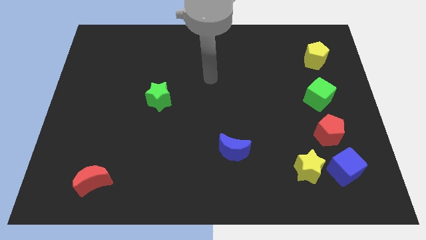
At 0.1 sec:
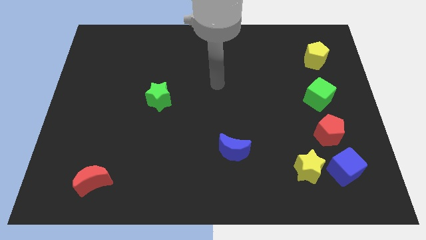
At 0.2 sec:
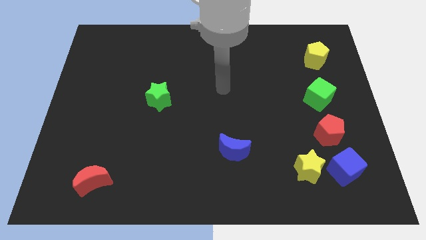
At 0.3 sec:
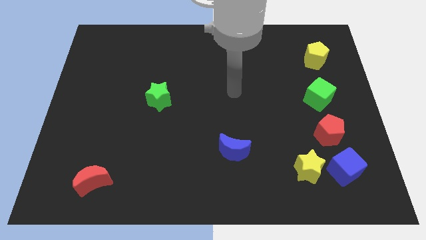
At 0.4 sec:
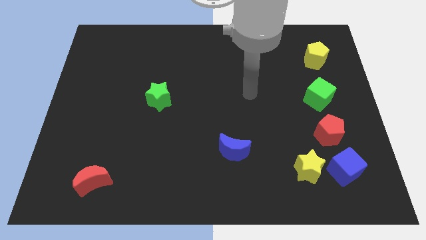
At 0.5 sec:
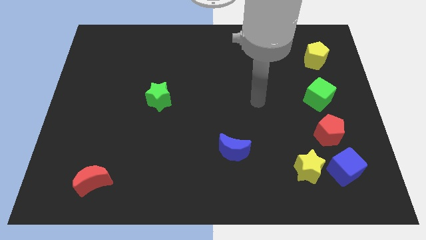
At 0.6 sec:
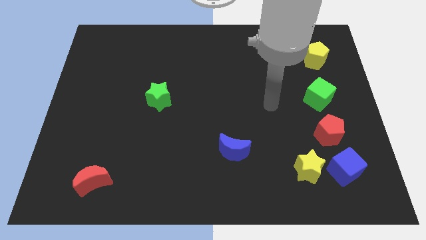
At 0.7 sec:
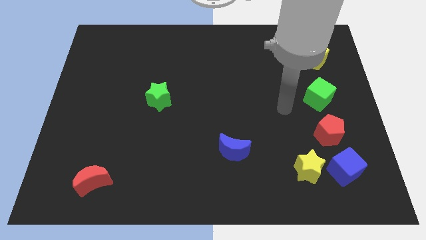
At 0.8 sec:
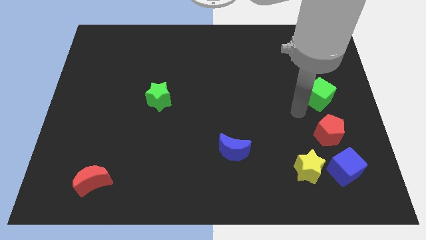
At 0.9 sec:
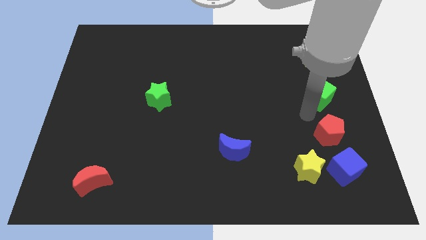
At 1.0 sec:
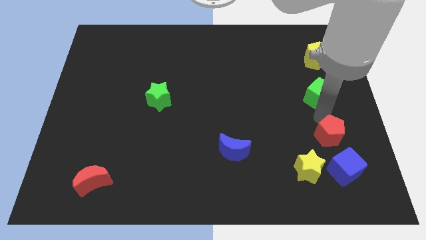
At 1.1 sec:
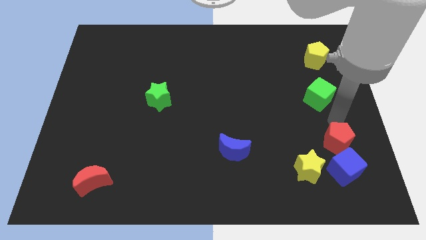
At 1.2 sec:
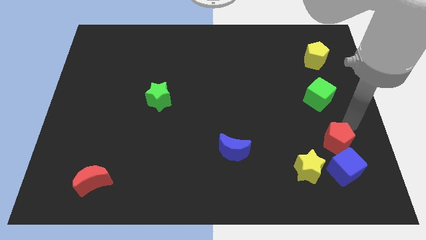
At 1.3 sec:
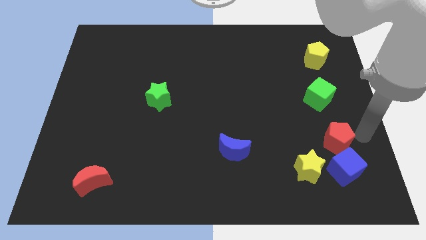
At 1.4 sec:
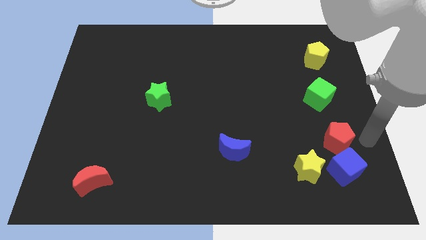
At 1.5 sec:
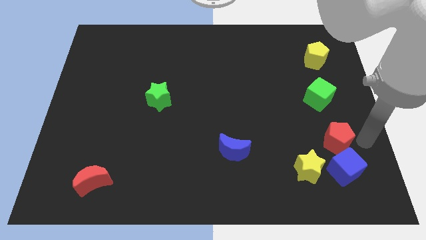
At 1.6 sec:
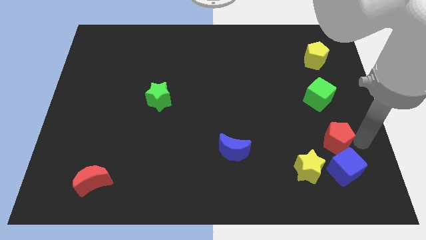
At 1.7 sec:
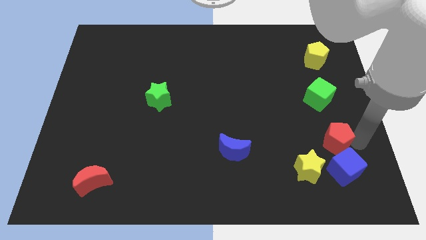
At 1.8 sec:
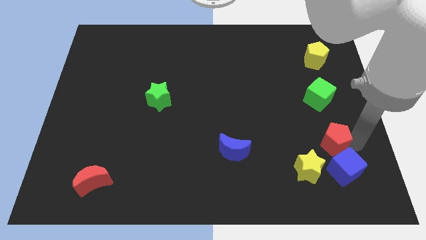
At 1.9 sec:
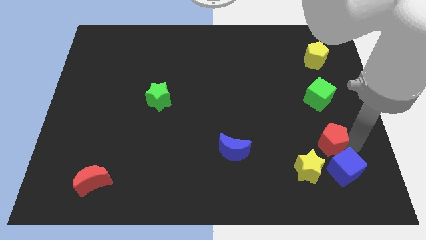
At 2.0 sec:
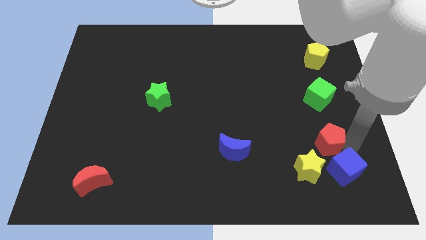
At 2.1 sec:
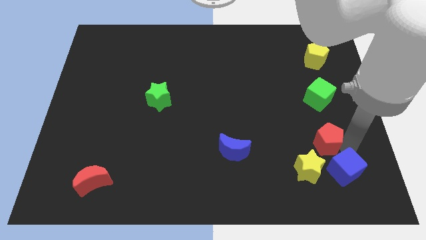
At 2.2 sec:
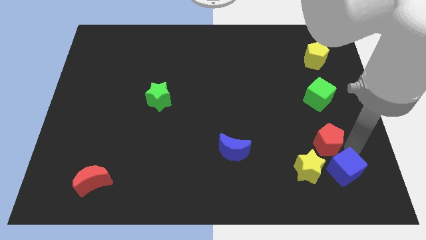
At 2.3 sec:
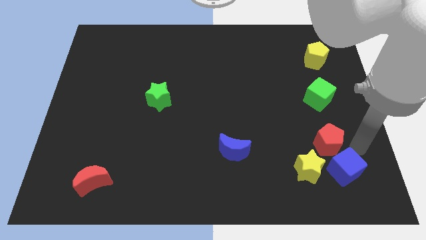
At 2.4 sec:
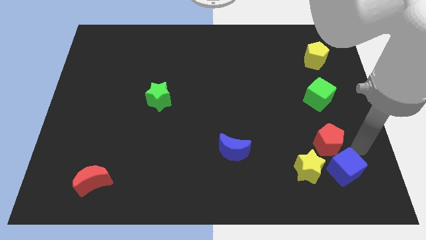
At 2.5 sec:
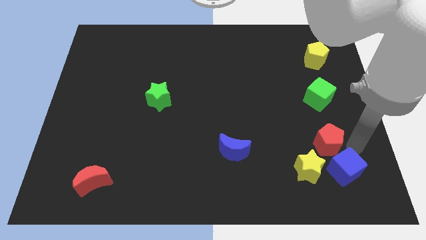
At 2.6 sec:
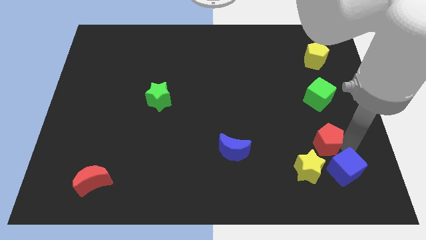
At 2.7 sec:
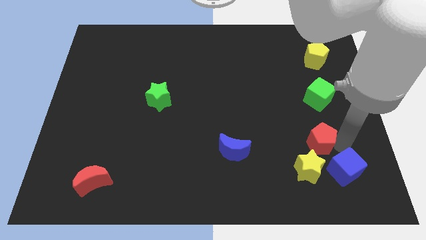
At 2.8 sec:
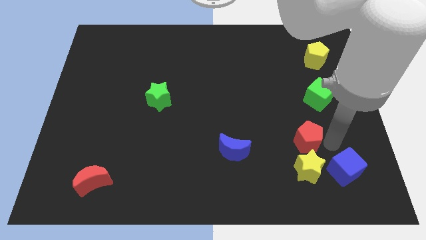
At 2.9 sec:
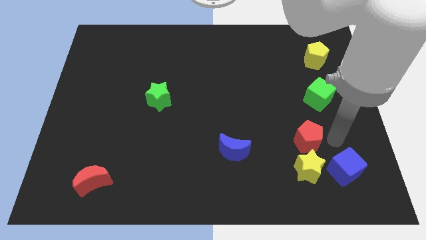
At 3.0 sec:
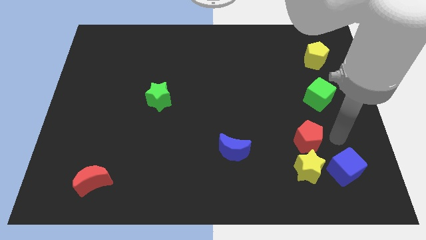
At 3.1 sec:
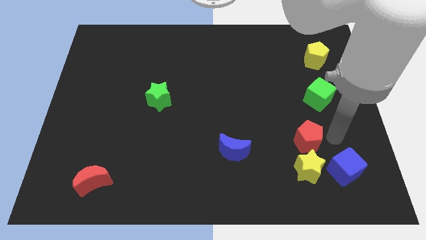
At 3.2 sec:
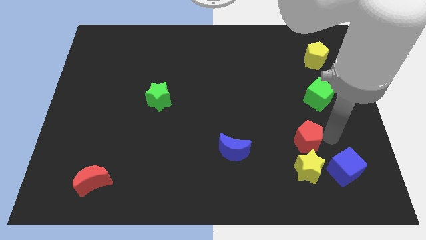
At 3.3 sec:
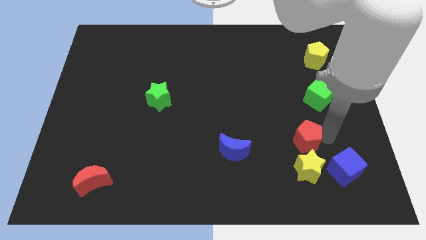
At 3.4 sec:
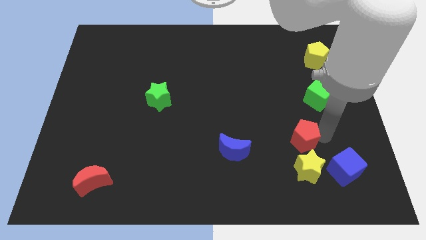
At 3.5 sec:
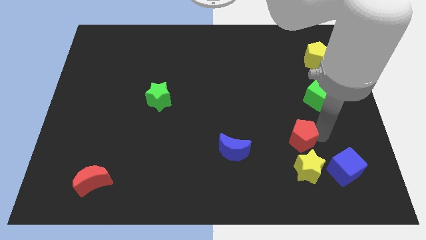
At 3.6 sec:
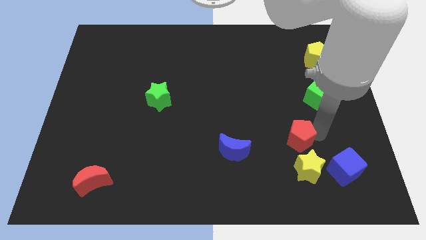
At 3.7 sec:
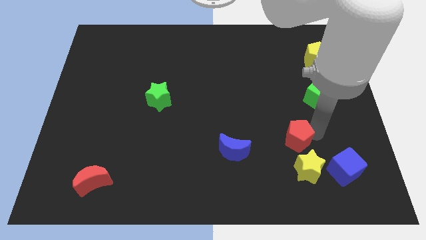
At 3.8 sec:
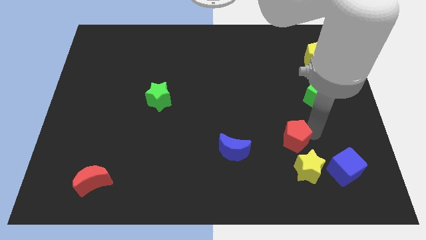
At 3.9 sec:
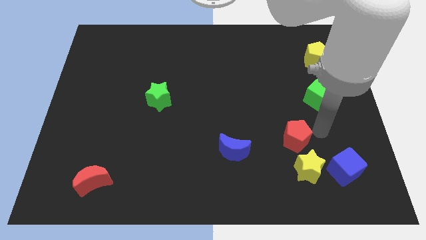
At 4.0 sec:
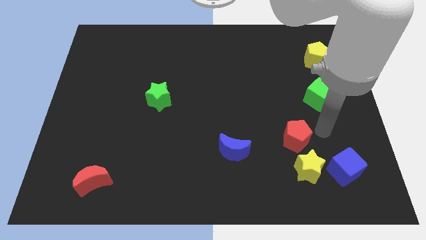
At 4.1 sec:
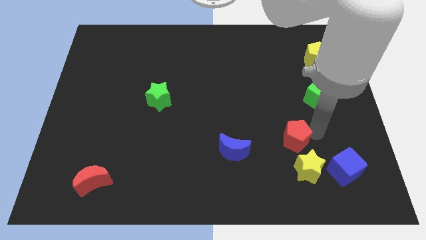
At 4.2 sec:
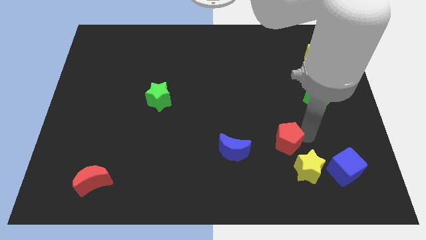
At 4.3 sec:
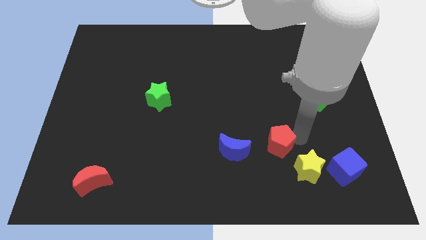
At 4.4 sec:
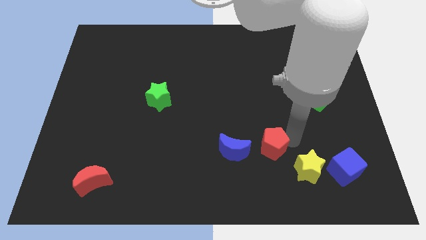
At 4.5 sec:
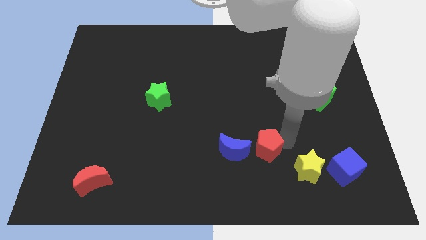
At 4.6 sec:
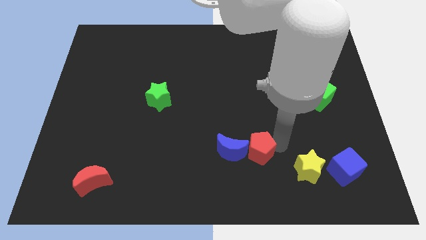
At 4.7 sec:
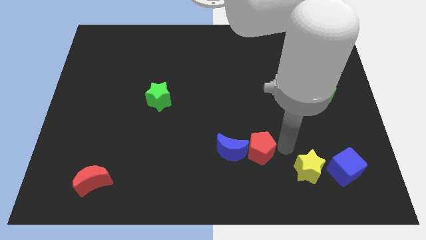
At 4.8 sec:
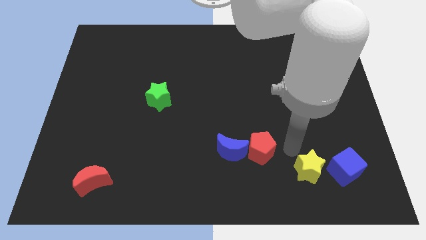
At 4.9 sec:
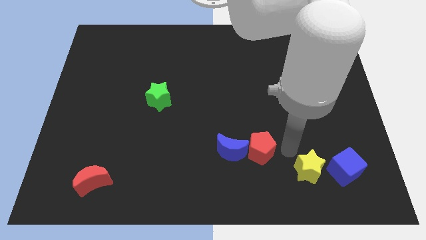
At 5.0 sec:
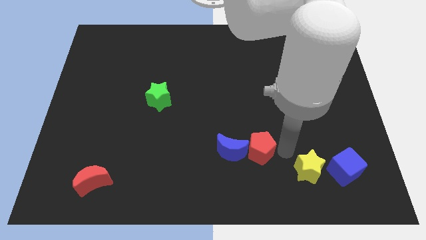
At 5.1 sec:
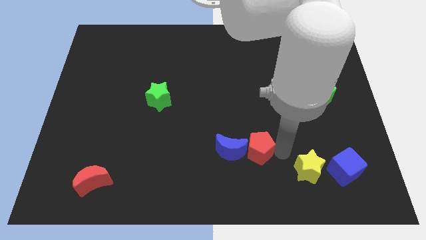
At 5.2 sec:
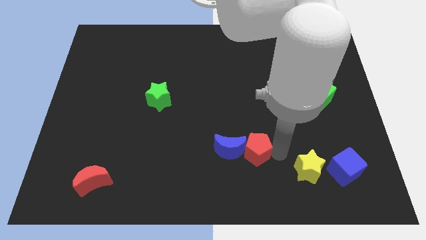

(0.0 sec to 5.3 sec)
move the red pentagon close to the blue moon

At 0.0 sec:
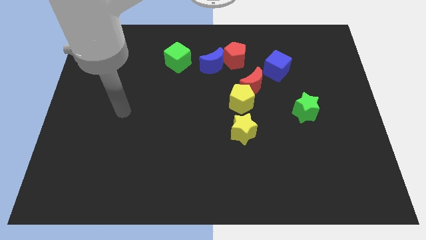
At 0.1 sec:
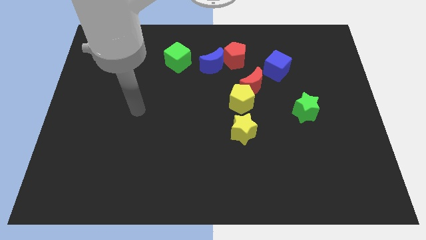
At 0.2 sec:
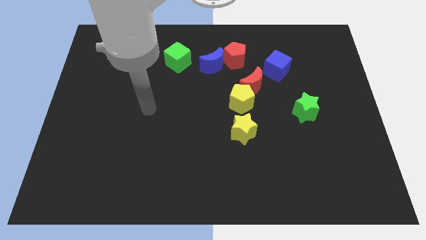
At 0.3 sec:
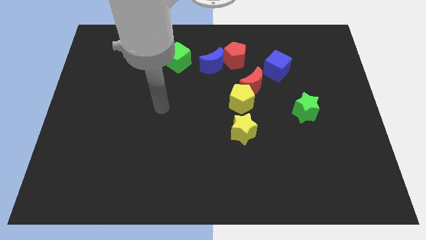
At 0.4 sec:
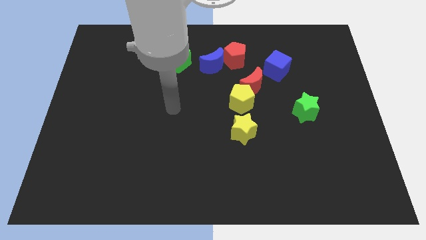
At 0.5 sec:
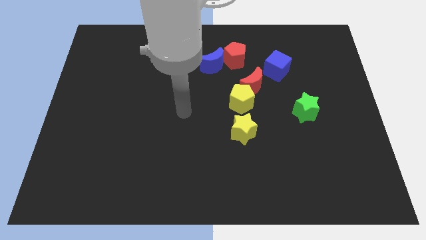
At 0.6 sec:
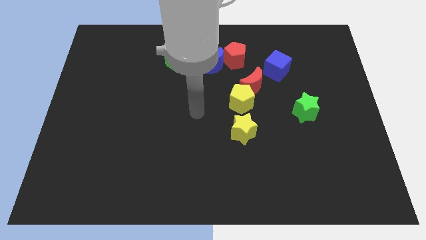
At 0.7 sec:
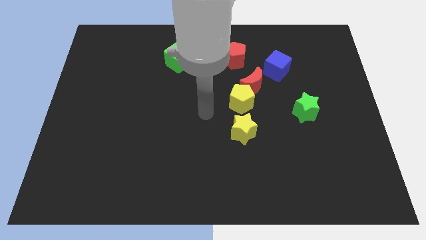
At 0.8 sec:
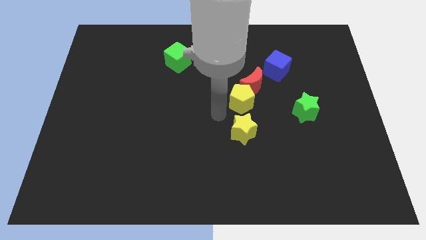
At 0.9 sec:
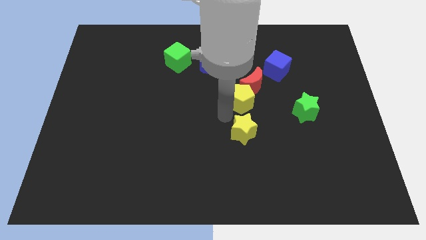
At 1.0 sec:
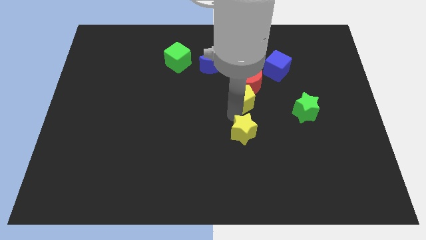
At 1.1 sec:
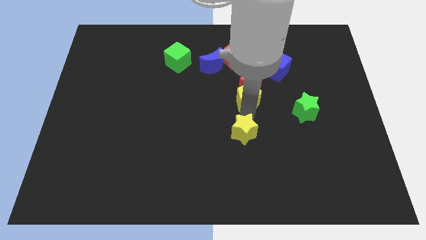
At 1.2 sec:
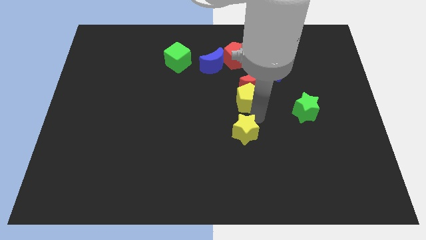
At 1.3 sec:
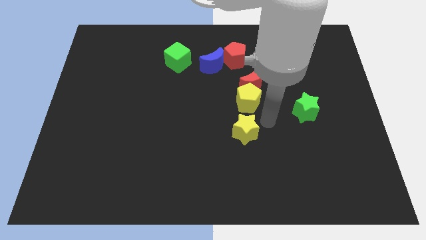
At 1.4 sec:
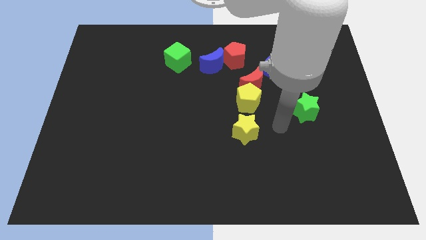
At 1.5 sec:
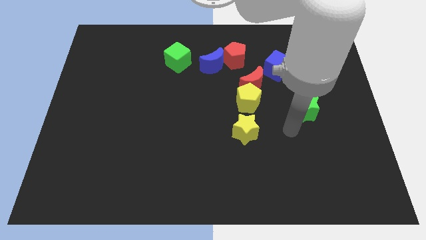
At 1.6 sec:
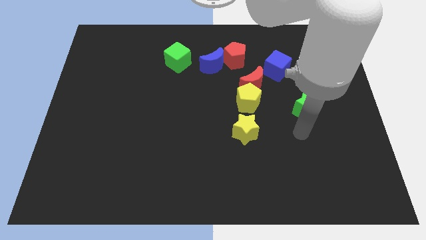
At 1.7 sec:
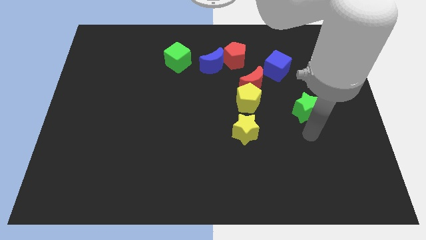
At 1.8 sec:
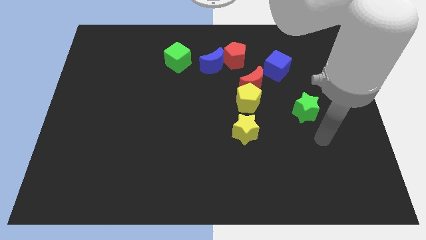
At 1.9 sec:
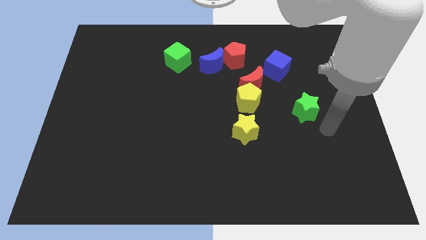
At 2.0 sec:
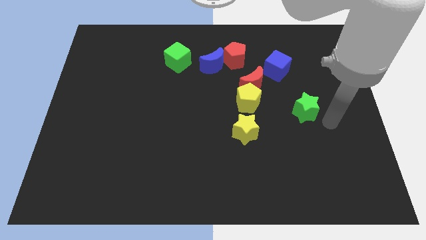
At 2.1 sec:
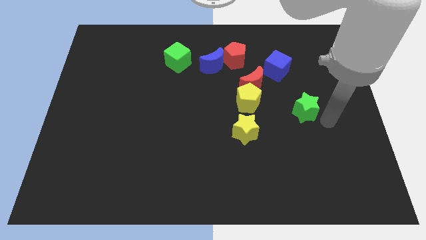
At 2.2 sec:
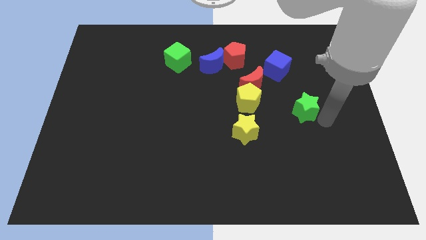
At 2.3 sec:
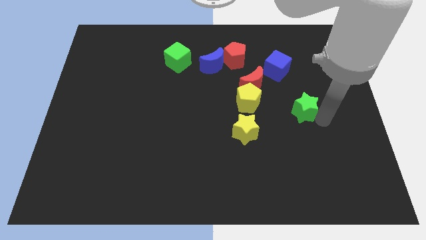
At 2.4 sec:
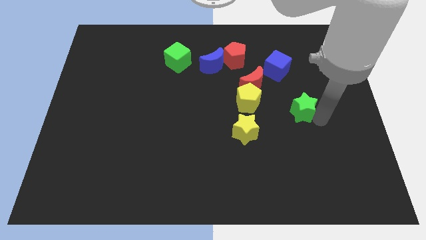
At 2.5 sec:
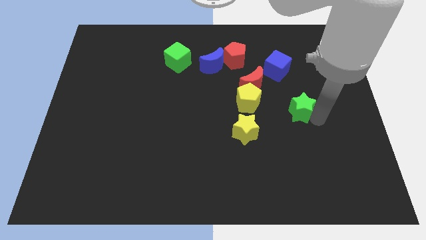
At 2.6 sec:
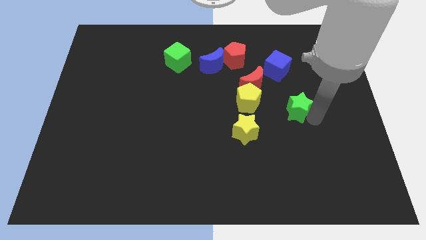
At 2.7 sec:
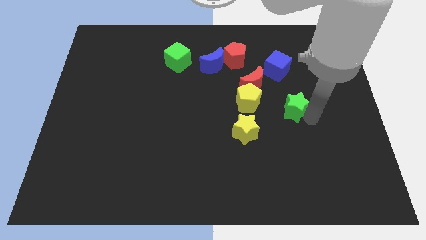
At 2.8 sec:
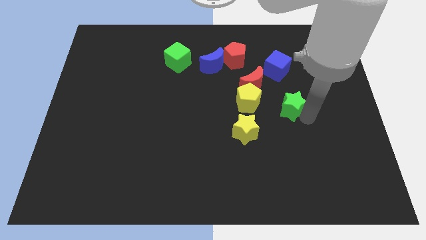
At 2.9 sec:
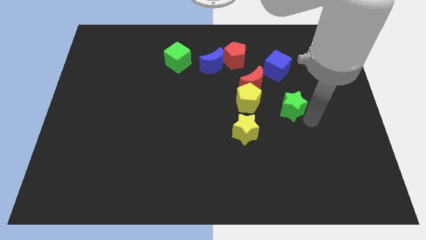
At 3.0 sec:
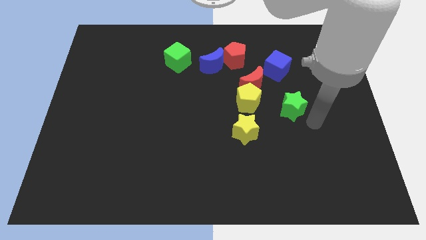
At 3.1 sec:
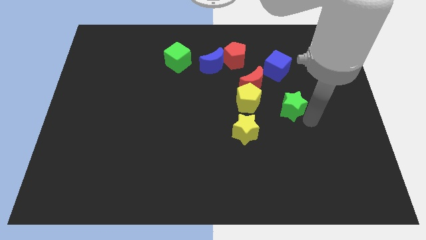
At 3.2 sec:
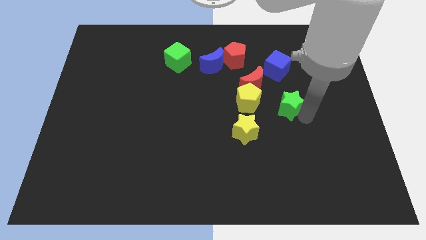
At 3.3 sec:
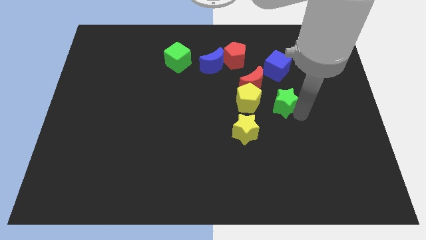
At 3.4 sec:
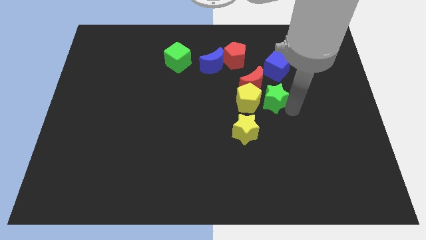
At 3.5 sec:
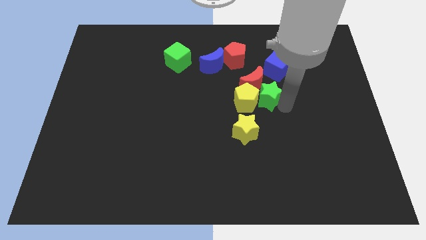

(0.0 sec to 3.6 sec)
put the green star next to the red moon
